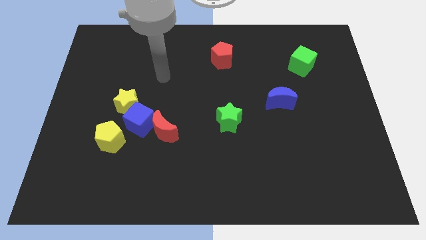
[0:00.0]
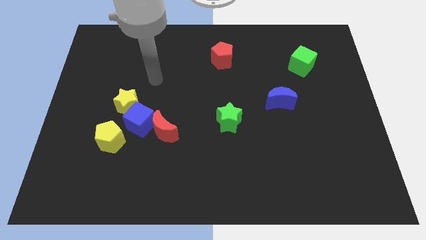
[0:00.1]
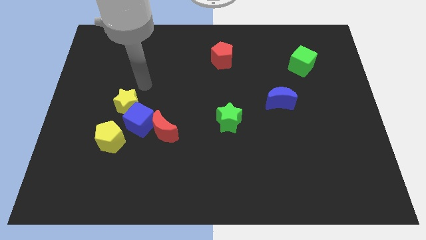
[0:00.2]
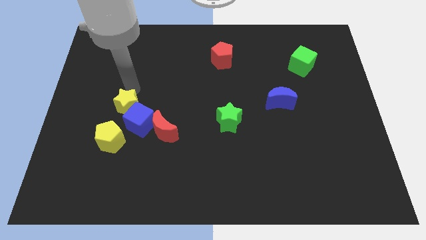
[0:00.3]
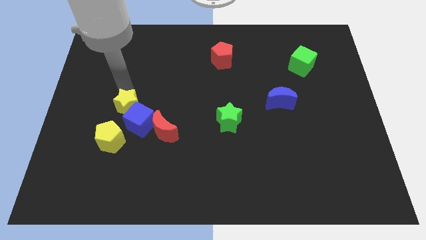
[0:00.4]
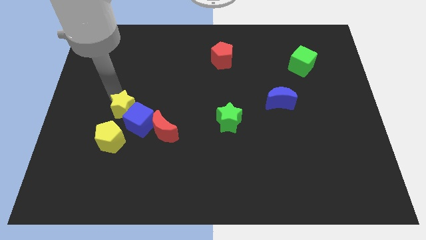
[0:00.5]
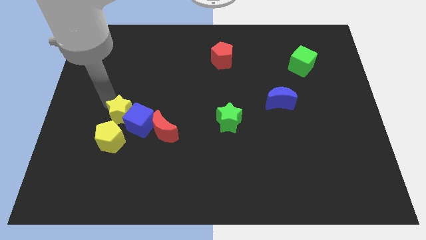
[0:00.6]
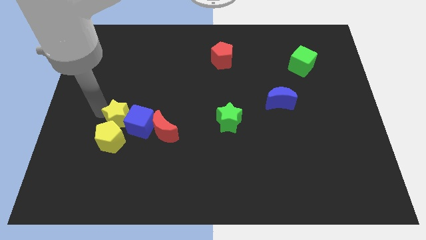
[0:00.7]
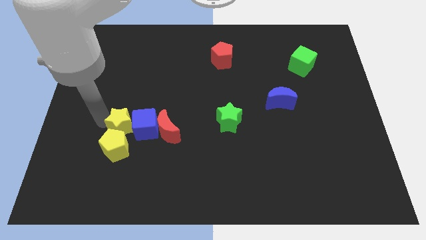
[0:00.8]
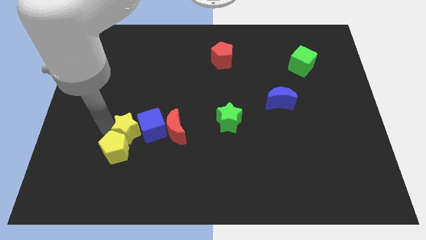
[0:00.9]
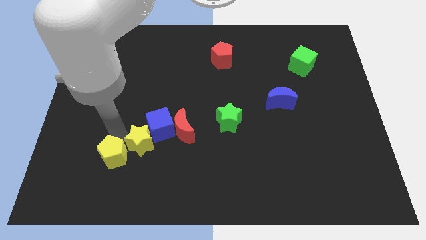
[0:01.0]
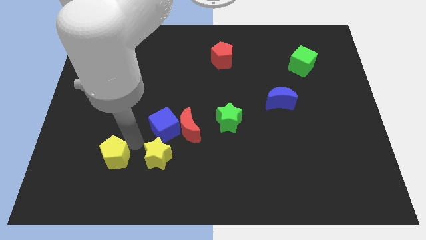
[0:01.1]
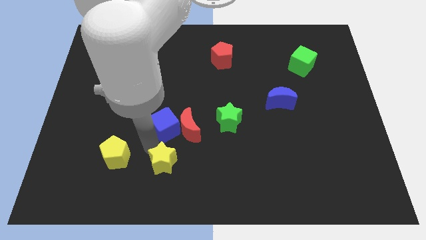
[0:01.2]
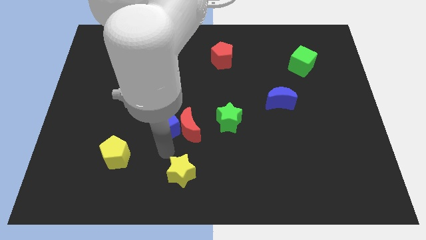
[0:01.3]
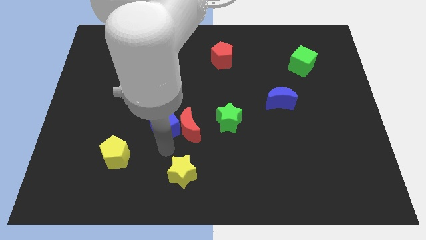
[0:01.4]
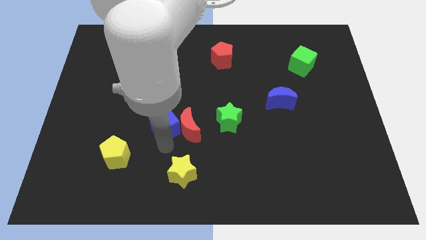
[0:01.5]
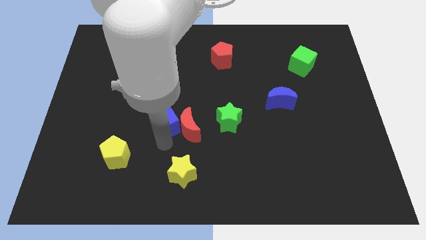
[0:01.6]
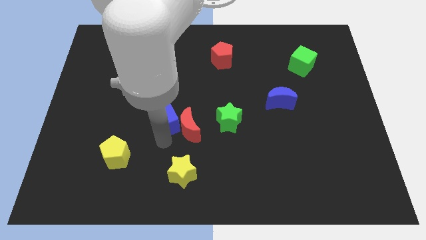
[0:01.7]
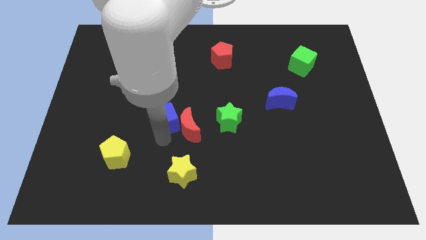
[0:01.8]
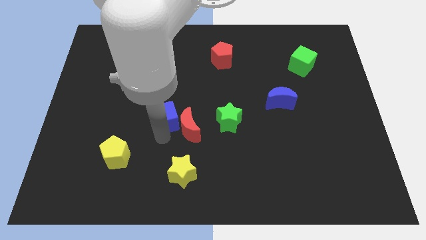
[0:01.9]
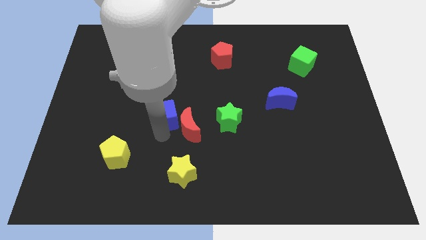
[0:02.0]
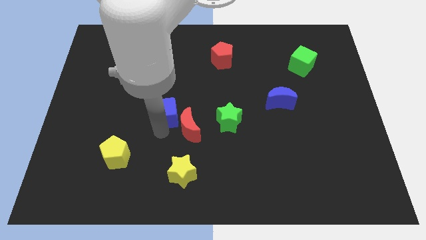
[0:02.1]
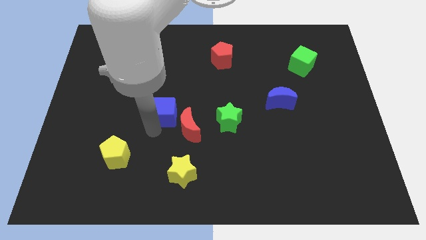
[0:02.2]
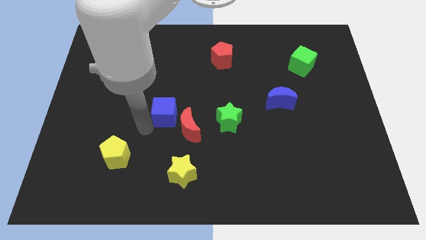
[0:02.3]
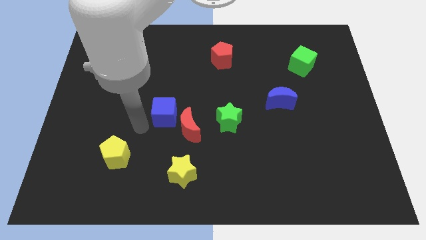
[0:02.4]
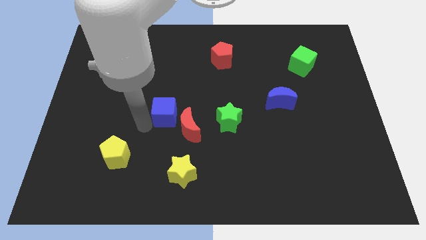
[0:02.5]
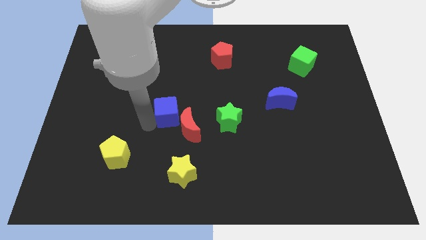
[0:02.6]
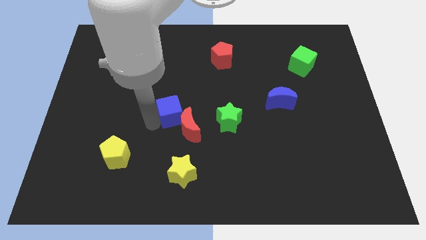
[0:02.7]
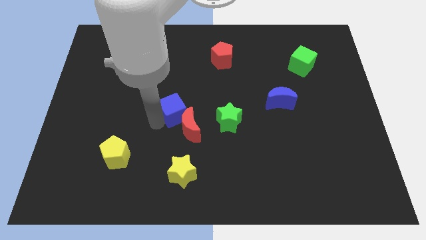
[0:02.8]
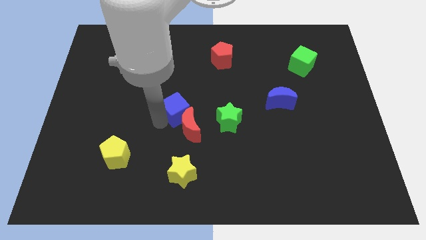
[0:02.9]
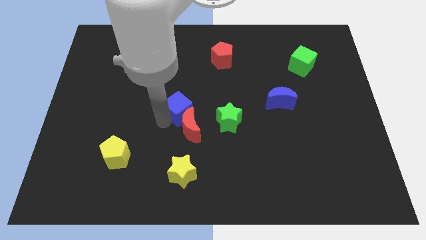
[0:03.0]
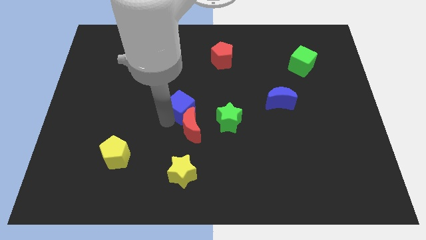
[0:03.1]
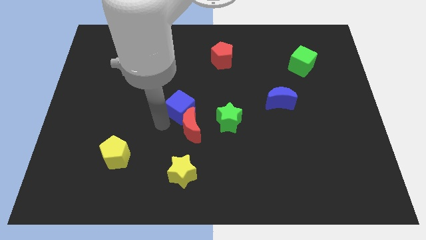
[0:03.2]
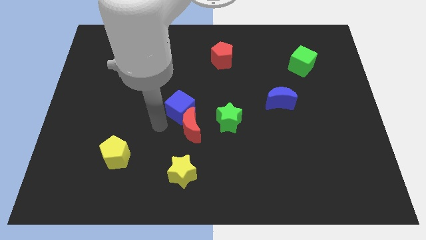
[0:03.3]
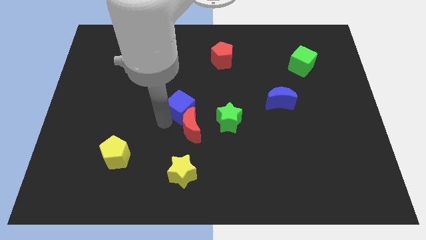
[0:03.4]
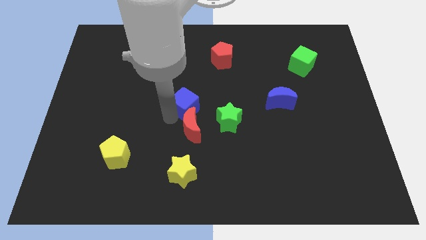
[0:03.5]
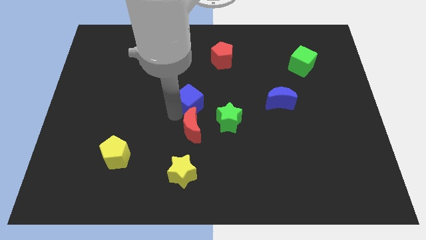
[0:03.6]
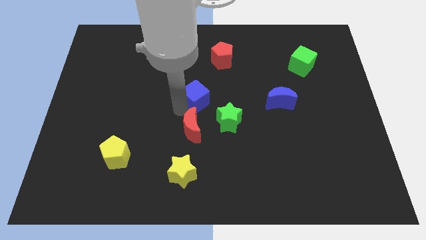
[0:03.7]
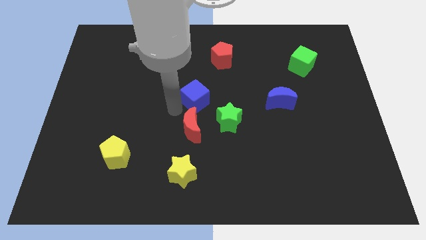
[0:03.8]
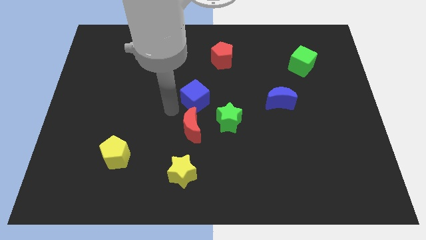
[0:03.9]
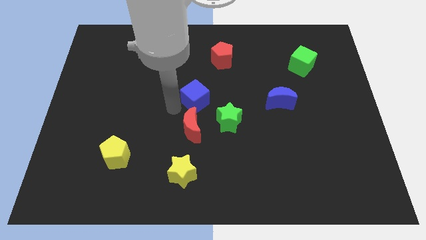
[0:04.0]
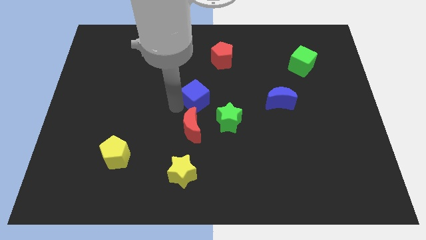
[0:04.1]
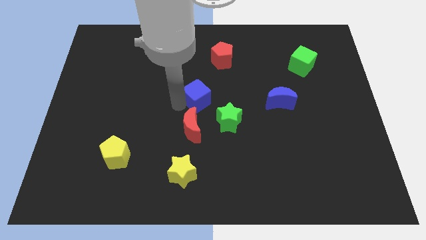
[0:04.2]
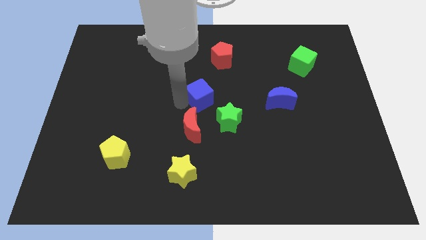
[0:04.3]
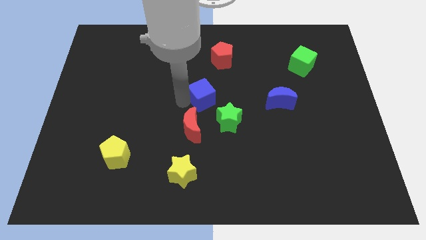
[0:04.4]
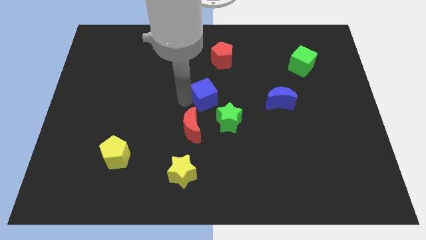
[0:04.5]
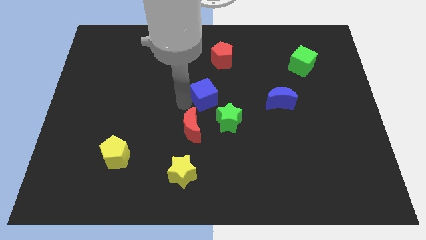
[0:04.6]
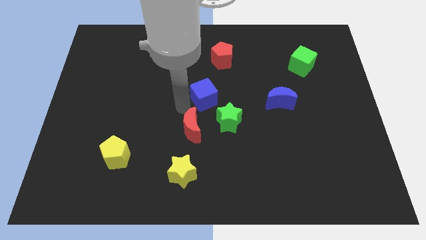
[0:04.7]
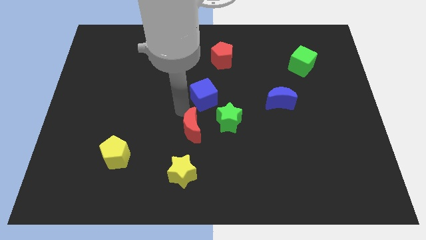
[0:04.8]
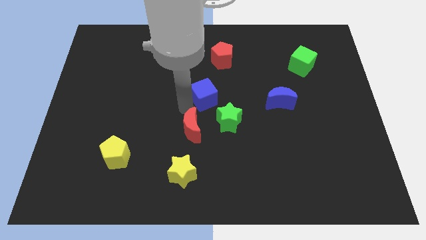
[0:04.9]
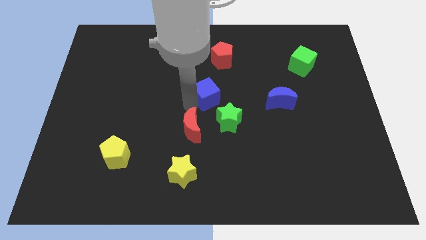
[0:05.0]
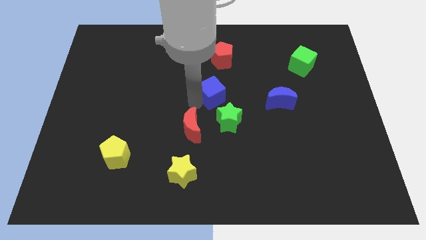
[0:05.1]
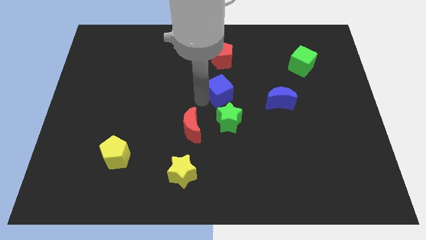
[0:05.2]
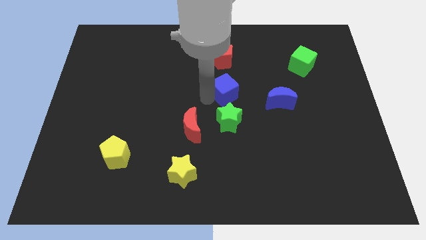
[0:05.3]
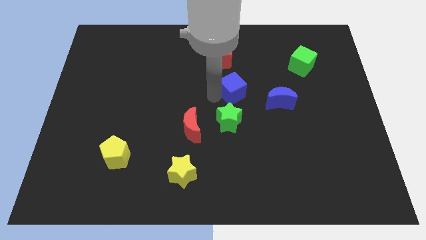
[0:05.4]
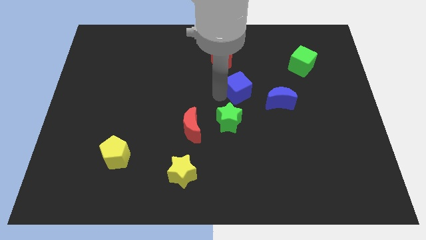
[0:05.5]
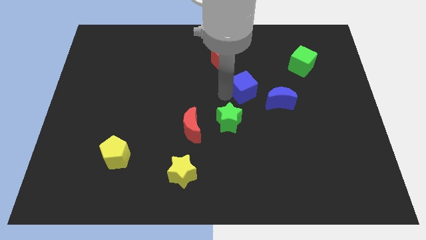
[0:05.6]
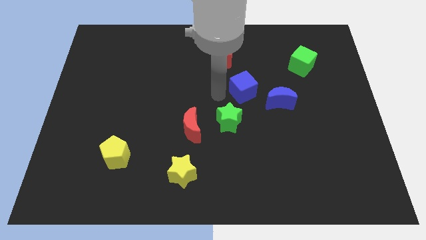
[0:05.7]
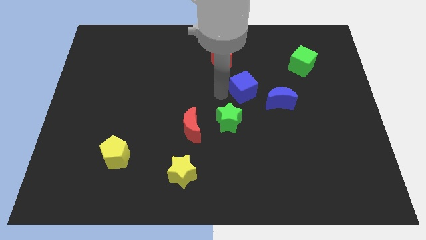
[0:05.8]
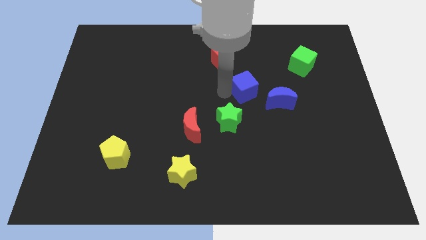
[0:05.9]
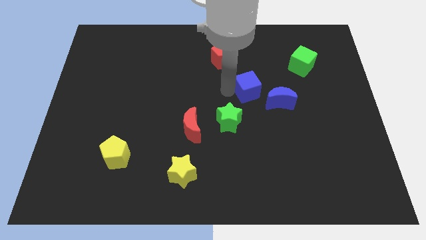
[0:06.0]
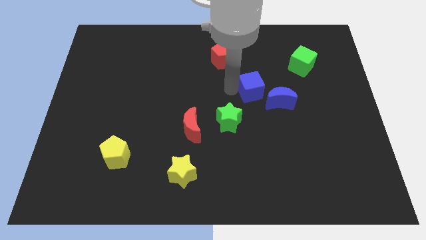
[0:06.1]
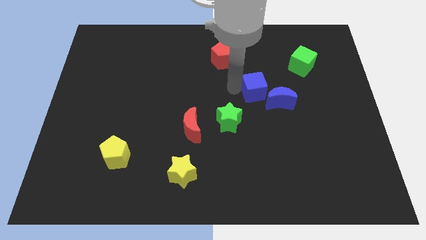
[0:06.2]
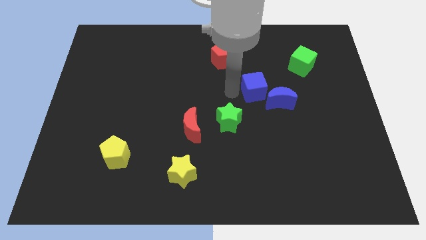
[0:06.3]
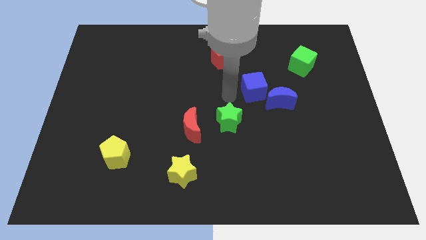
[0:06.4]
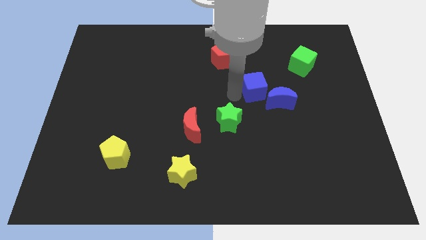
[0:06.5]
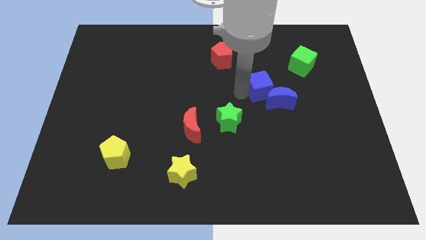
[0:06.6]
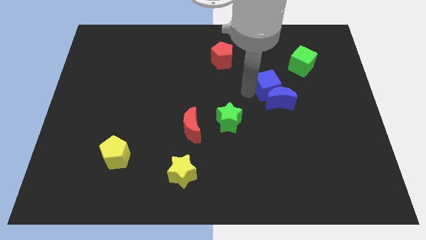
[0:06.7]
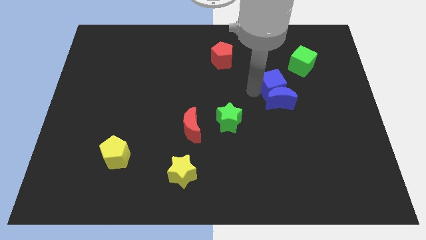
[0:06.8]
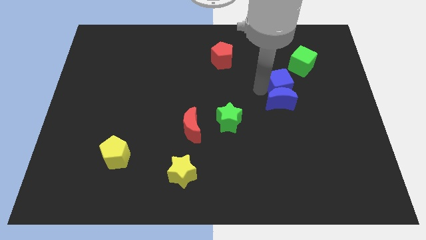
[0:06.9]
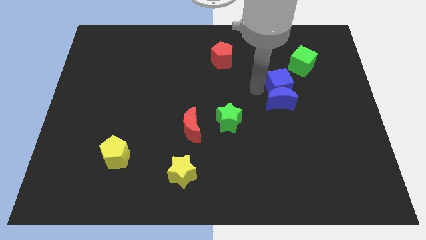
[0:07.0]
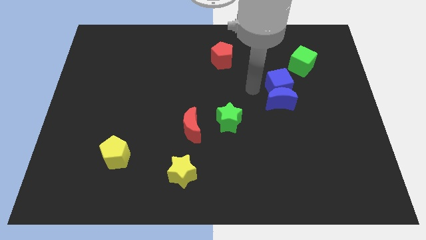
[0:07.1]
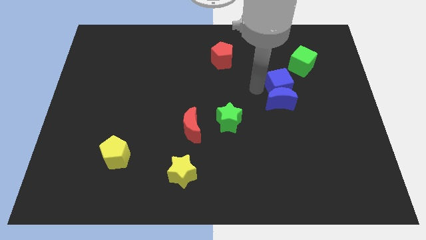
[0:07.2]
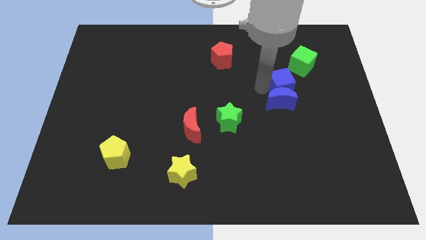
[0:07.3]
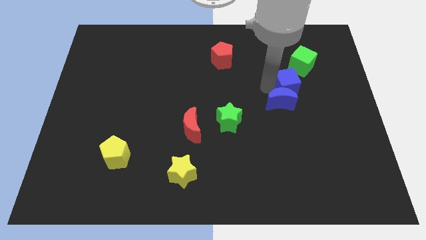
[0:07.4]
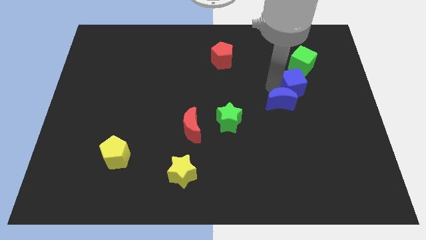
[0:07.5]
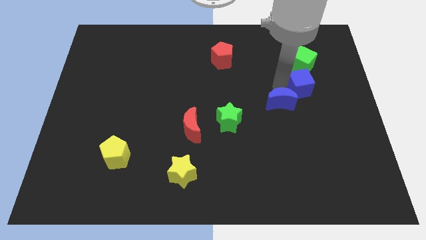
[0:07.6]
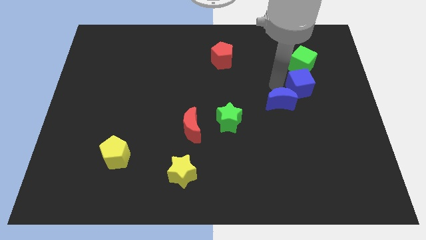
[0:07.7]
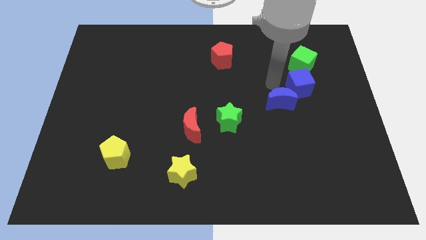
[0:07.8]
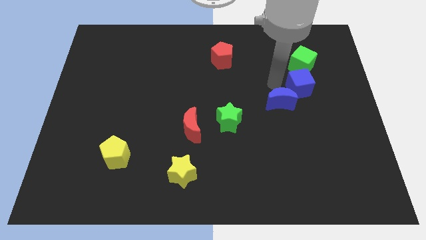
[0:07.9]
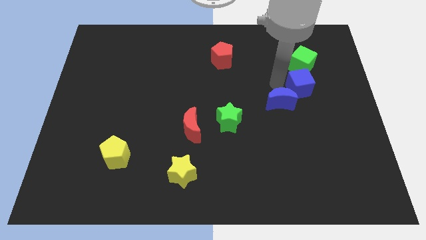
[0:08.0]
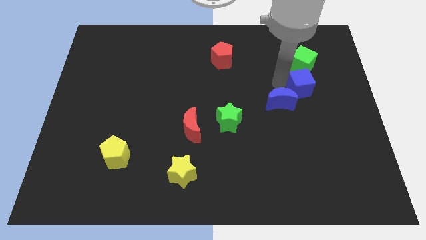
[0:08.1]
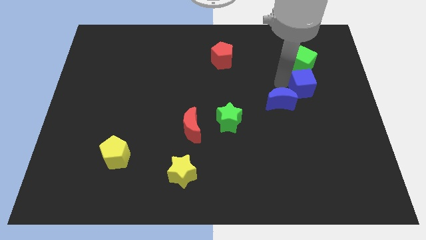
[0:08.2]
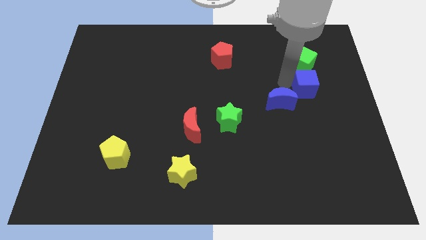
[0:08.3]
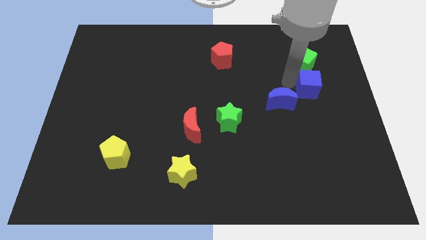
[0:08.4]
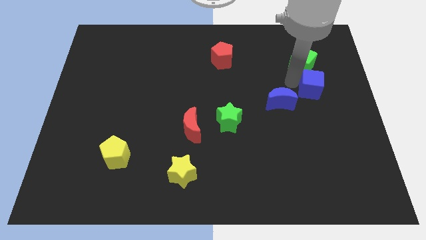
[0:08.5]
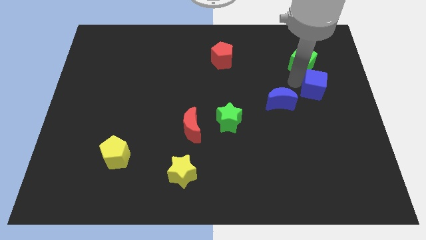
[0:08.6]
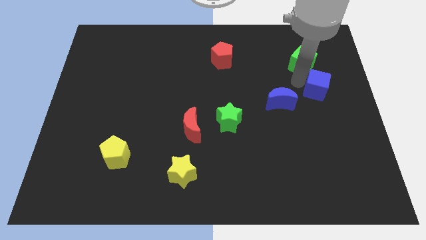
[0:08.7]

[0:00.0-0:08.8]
put the blue cube to the right side
